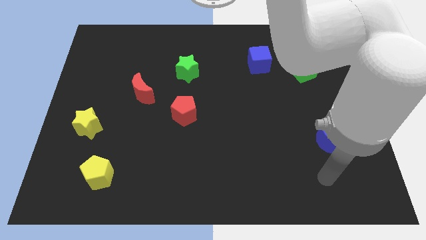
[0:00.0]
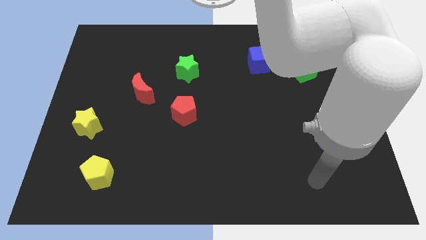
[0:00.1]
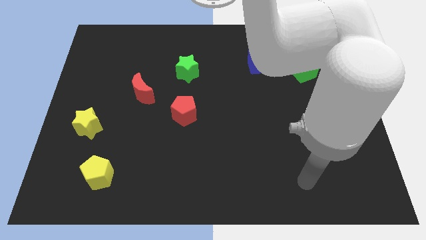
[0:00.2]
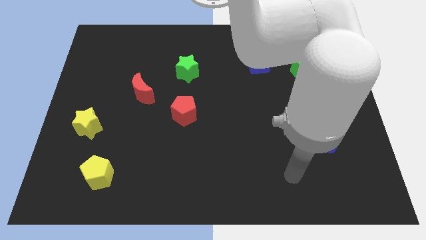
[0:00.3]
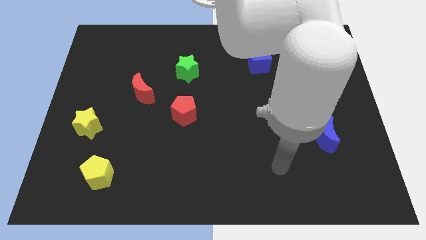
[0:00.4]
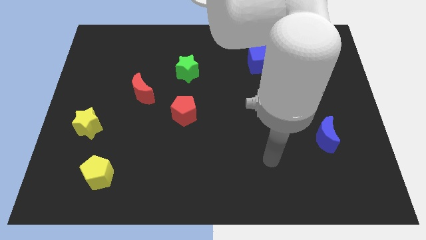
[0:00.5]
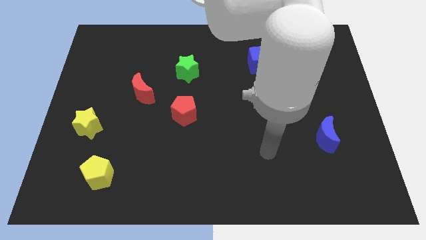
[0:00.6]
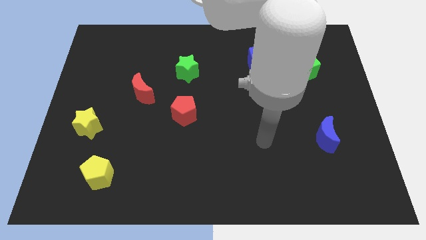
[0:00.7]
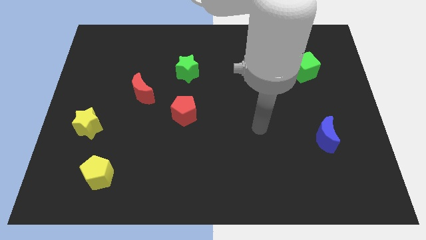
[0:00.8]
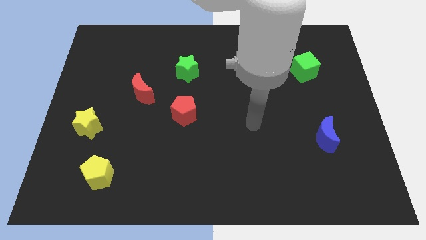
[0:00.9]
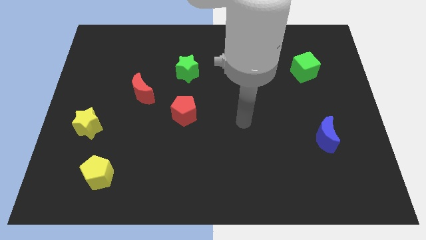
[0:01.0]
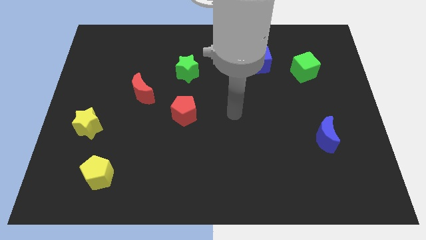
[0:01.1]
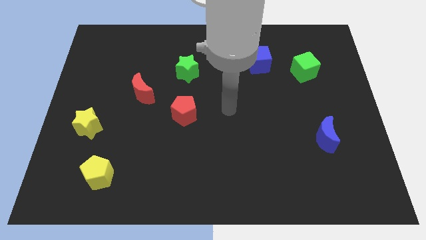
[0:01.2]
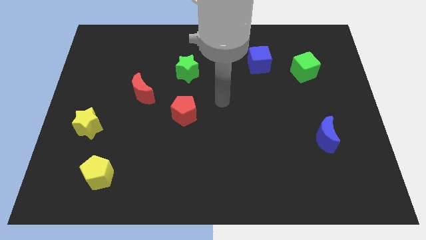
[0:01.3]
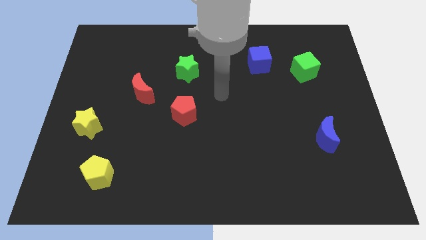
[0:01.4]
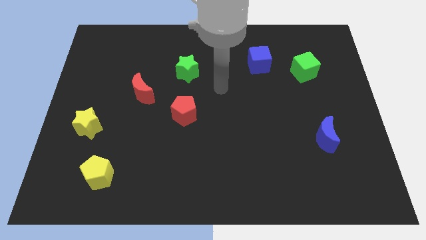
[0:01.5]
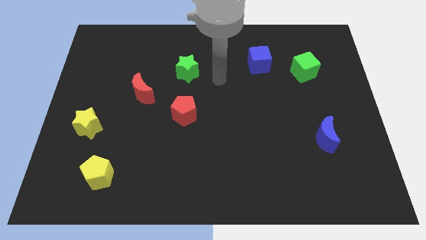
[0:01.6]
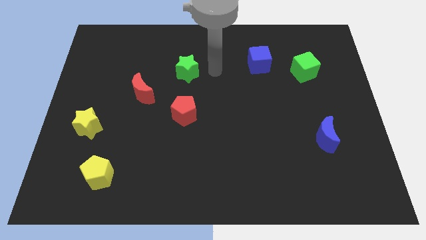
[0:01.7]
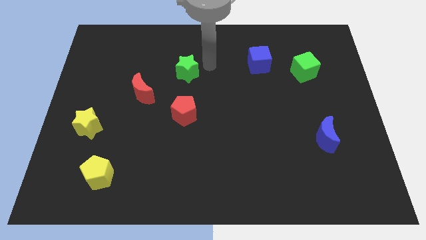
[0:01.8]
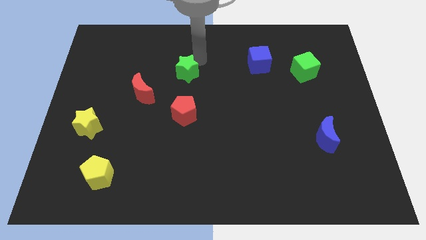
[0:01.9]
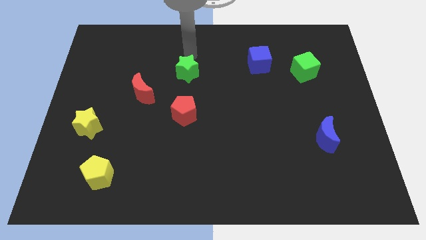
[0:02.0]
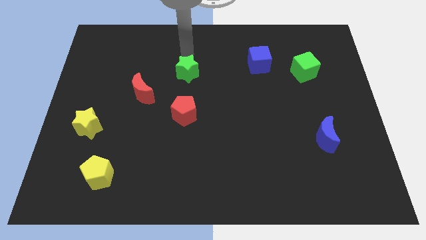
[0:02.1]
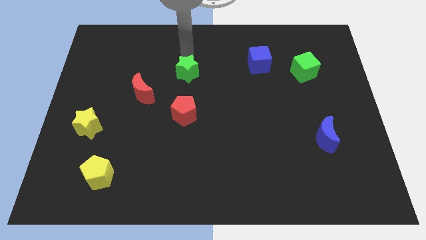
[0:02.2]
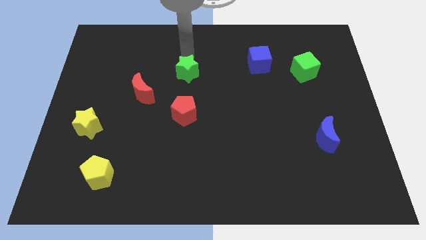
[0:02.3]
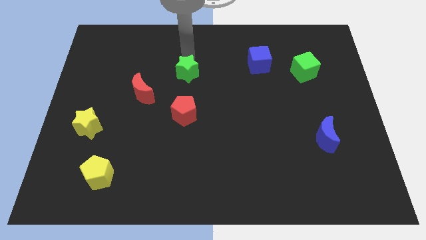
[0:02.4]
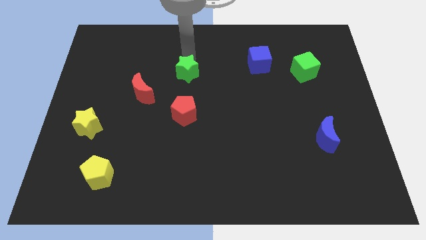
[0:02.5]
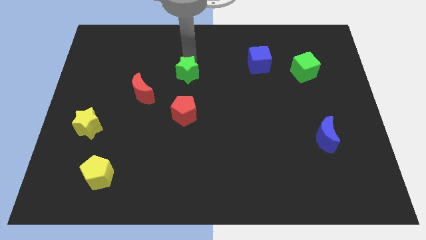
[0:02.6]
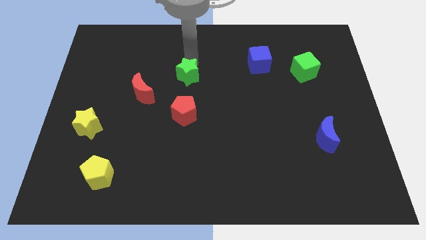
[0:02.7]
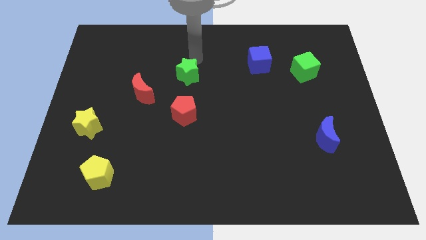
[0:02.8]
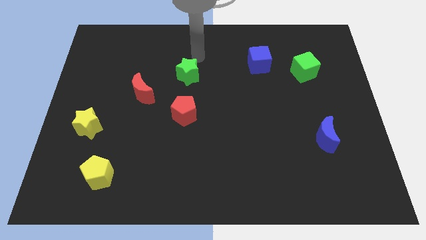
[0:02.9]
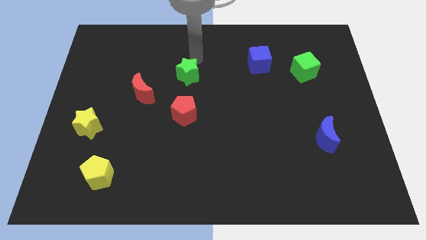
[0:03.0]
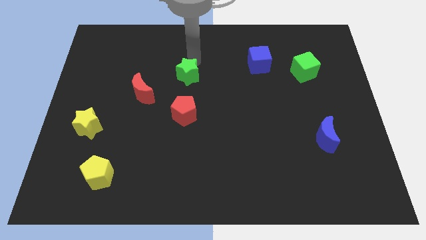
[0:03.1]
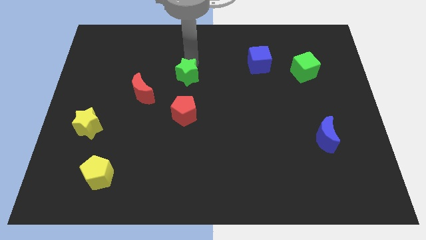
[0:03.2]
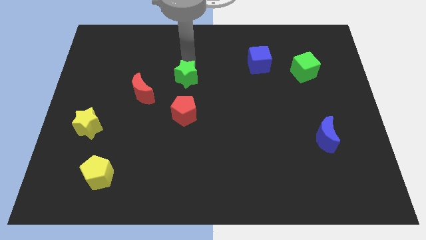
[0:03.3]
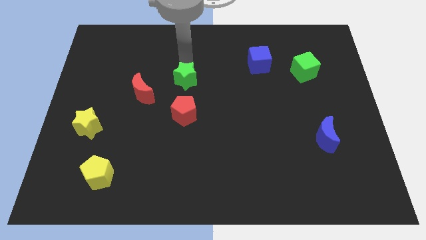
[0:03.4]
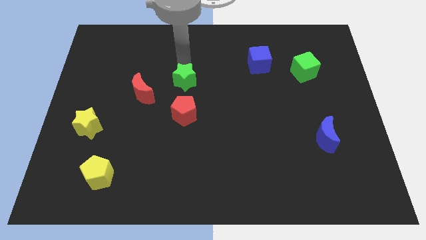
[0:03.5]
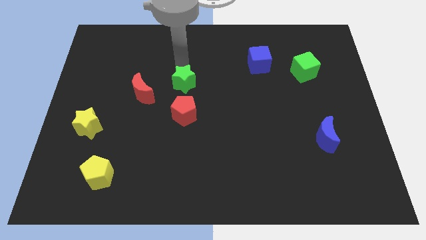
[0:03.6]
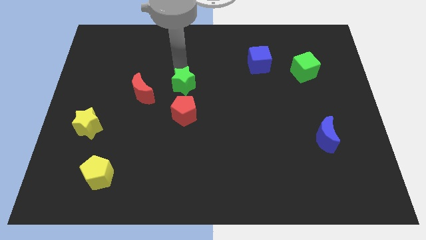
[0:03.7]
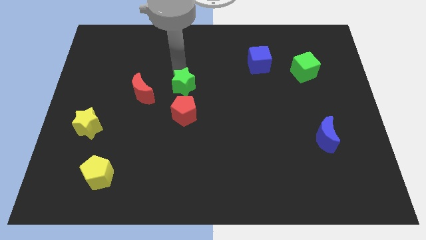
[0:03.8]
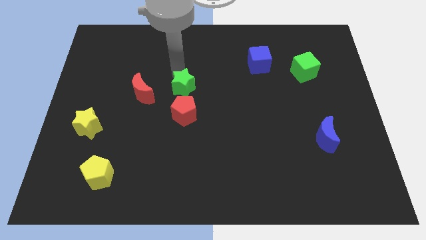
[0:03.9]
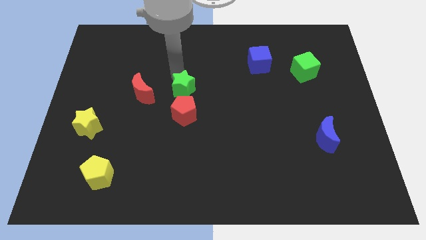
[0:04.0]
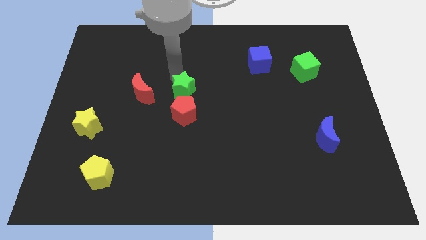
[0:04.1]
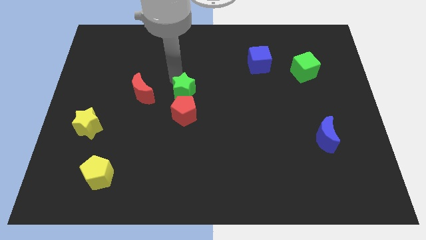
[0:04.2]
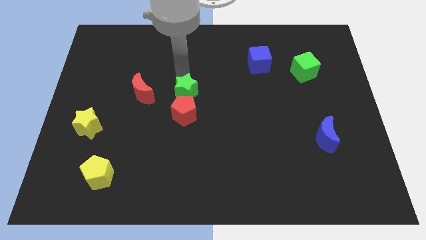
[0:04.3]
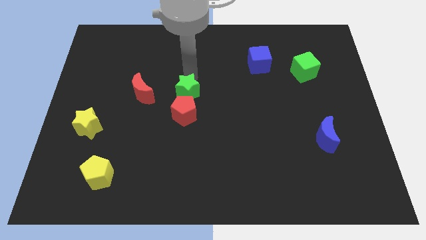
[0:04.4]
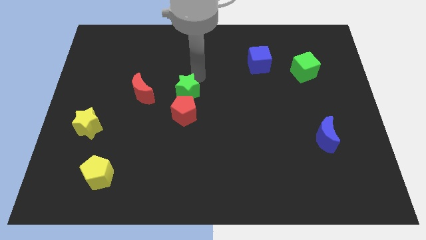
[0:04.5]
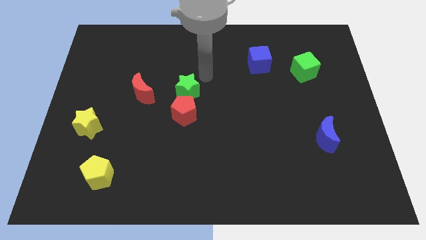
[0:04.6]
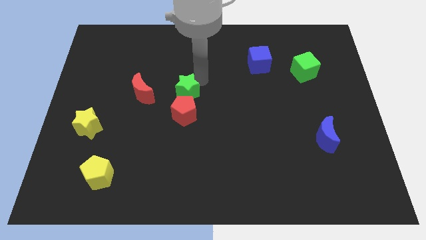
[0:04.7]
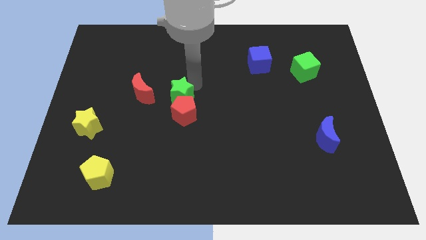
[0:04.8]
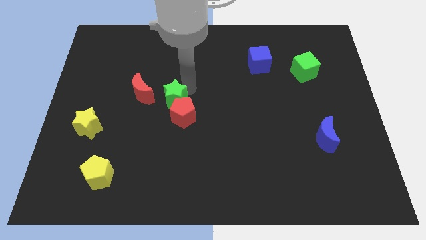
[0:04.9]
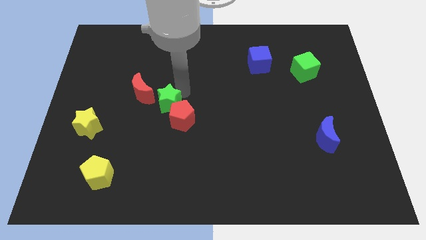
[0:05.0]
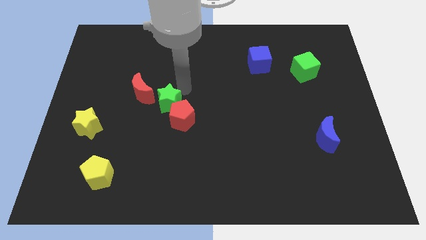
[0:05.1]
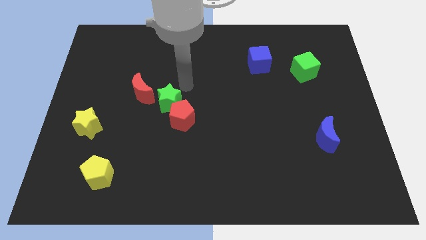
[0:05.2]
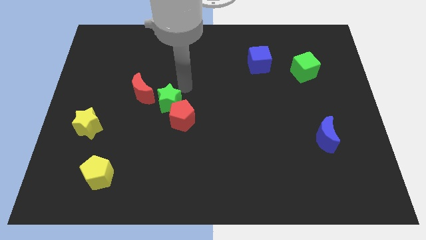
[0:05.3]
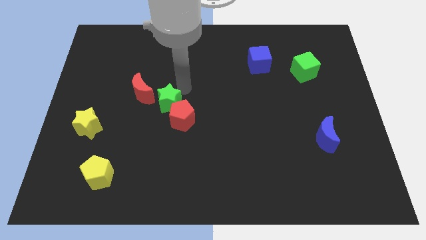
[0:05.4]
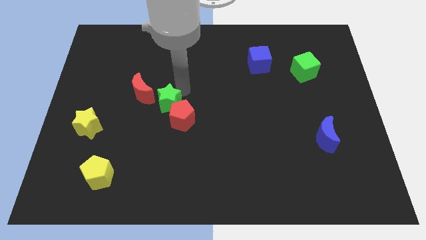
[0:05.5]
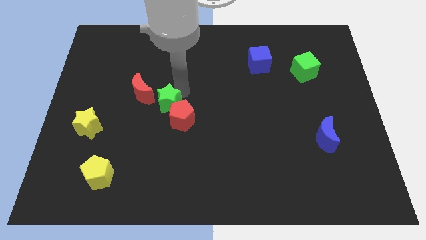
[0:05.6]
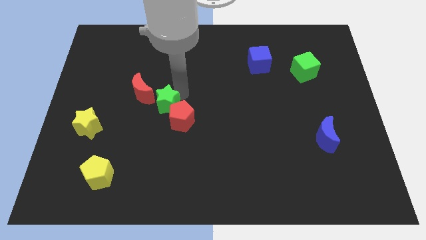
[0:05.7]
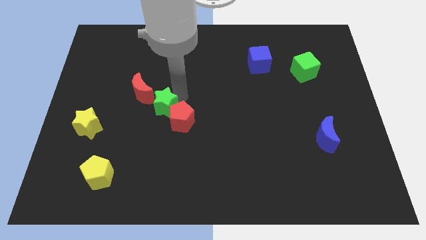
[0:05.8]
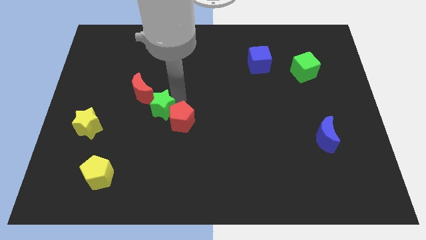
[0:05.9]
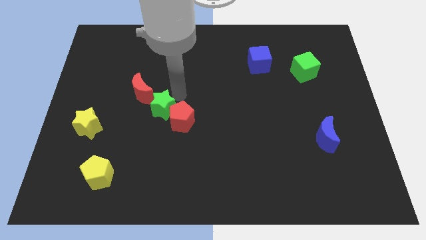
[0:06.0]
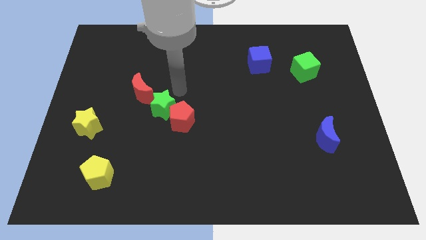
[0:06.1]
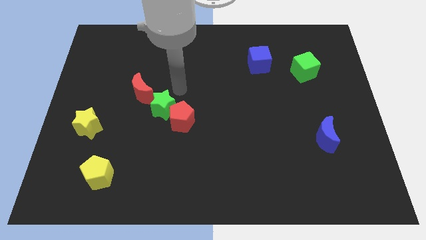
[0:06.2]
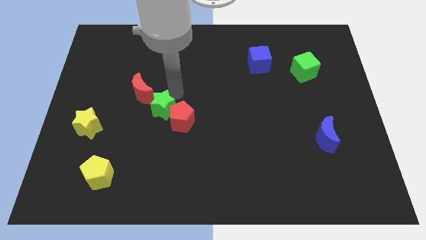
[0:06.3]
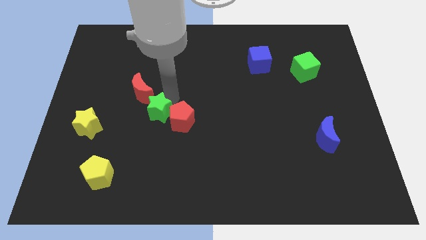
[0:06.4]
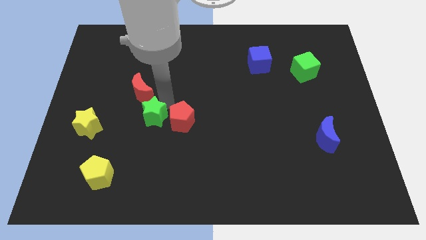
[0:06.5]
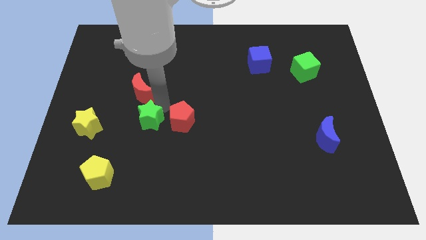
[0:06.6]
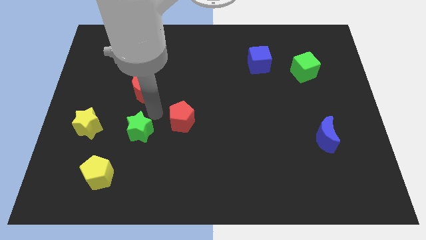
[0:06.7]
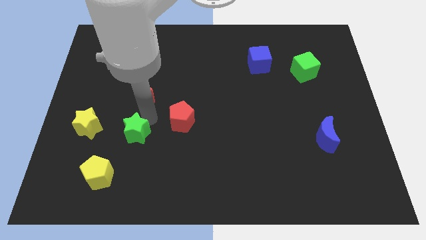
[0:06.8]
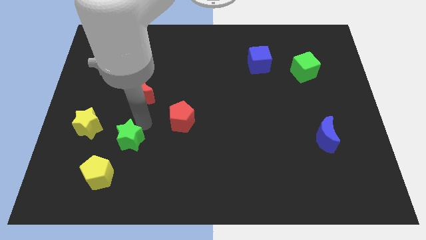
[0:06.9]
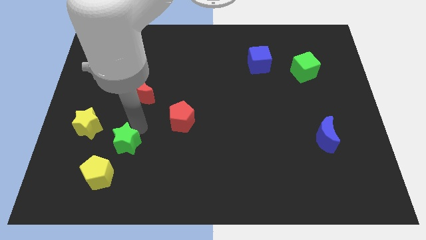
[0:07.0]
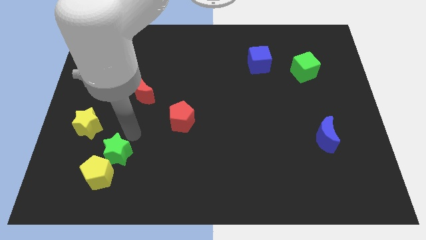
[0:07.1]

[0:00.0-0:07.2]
put the green star close to the yellow pentagon
